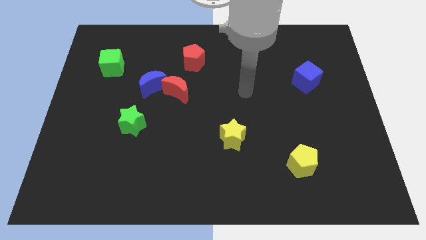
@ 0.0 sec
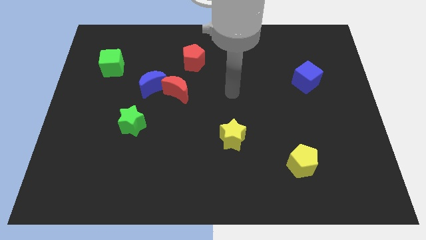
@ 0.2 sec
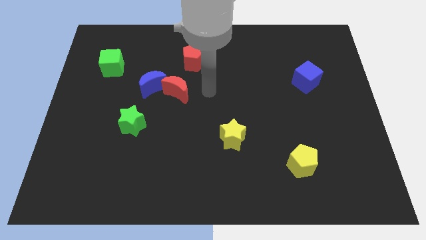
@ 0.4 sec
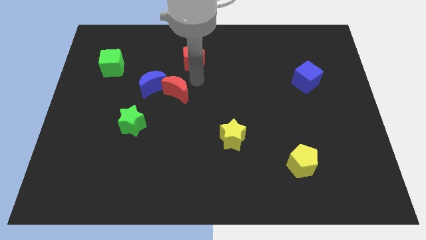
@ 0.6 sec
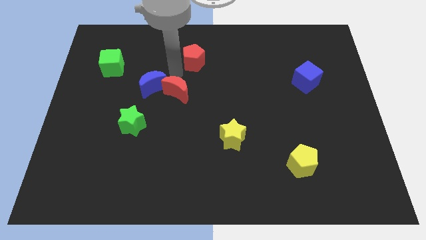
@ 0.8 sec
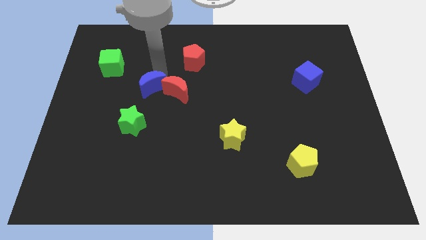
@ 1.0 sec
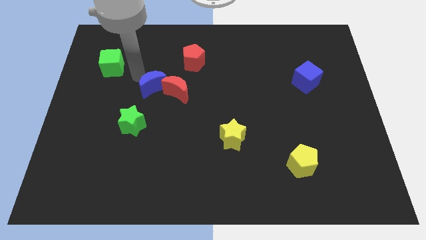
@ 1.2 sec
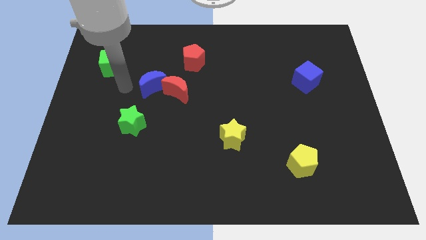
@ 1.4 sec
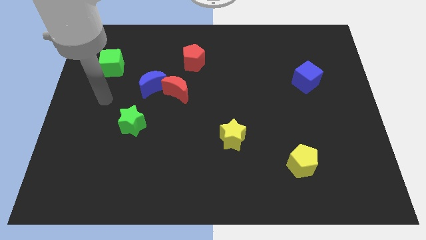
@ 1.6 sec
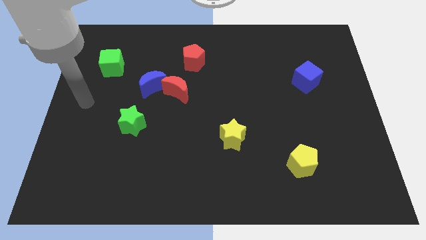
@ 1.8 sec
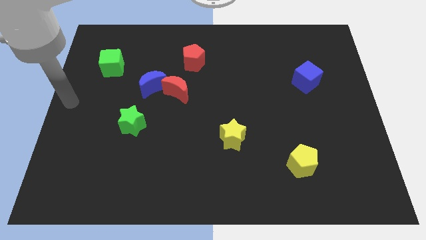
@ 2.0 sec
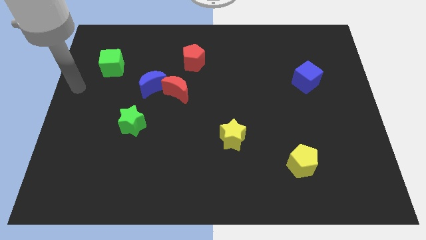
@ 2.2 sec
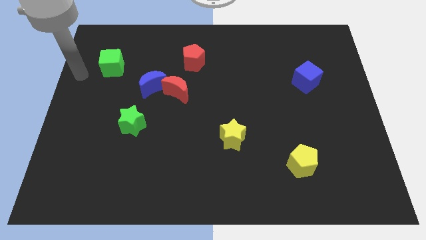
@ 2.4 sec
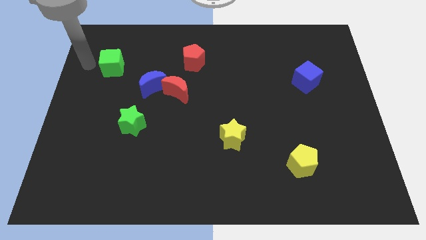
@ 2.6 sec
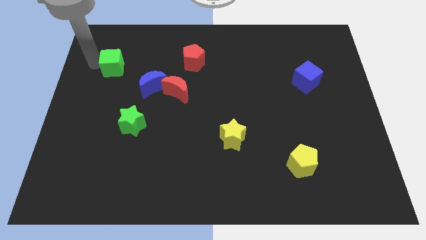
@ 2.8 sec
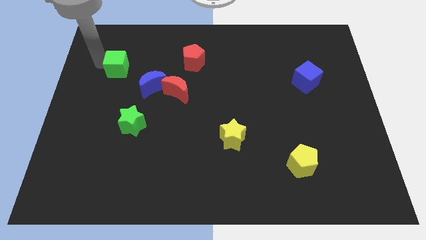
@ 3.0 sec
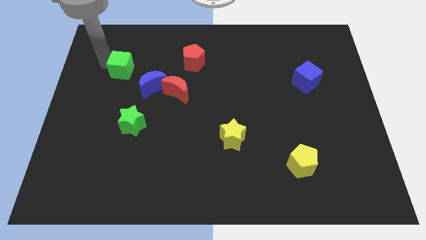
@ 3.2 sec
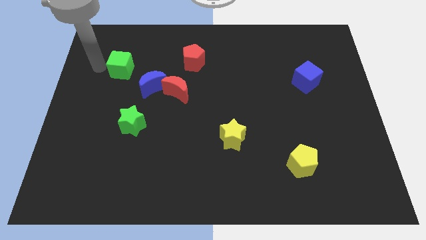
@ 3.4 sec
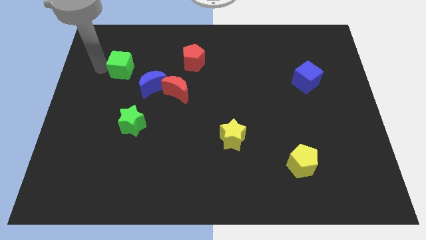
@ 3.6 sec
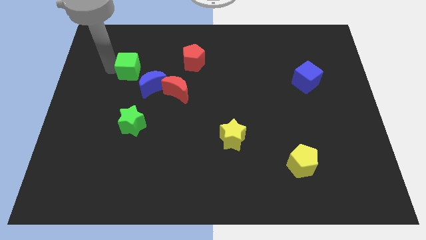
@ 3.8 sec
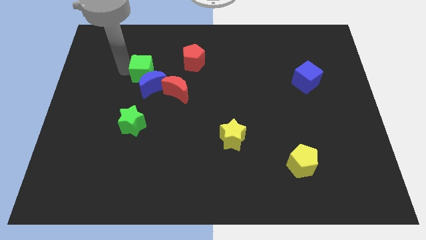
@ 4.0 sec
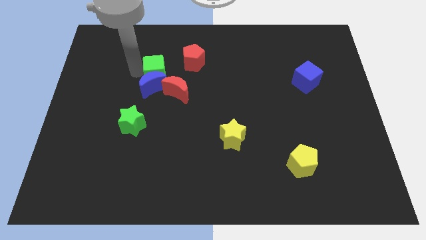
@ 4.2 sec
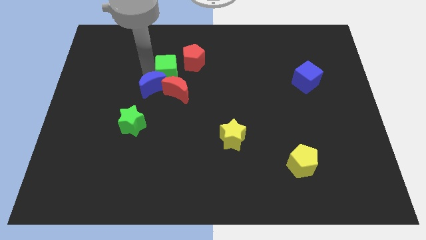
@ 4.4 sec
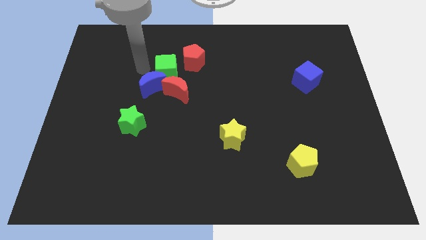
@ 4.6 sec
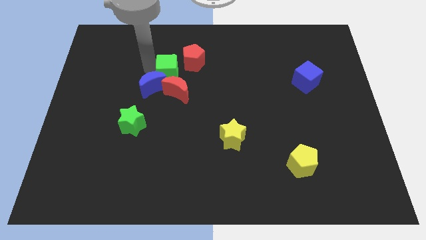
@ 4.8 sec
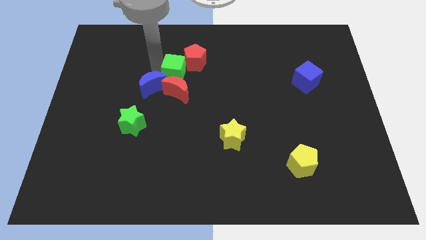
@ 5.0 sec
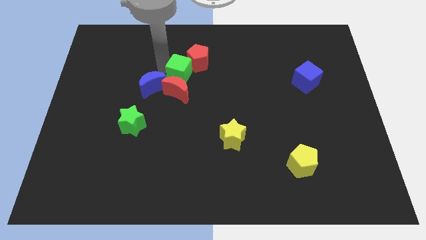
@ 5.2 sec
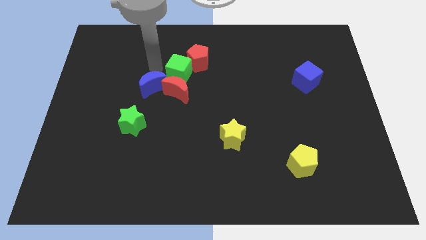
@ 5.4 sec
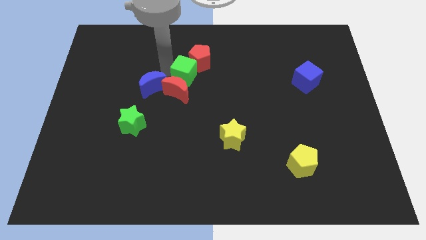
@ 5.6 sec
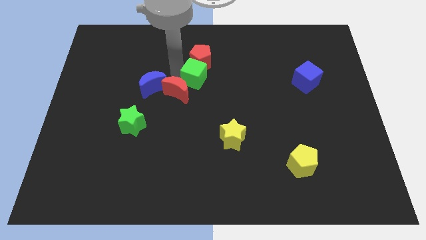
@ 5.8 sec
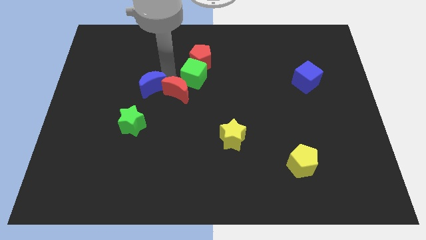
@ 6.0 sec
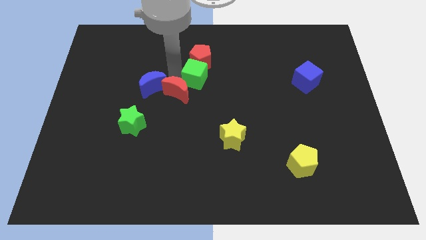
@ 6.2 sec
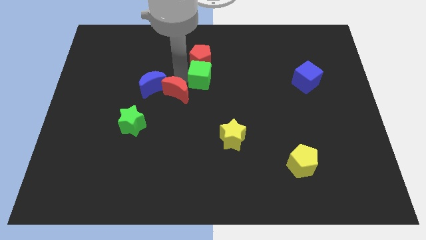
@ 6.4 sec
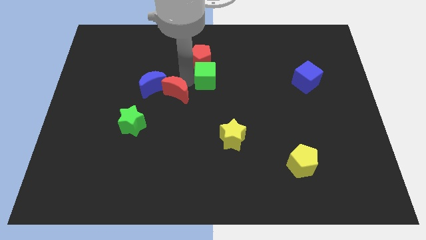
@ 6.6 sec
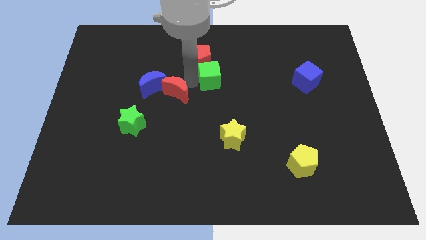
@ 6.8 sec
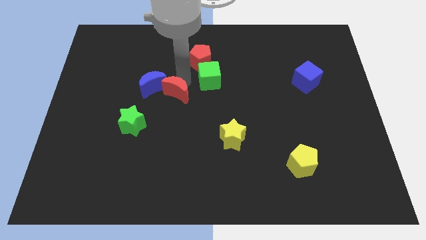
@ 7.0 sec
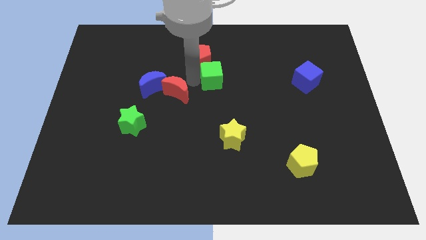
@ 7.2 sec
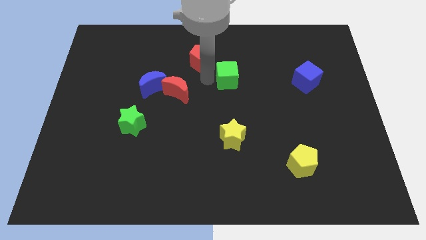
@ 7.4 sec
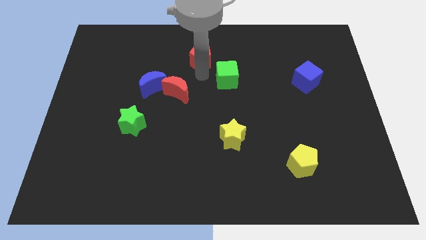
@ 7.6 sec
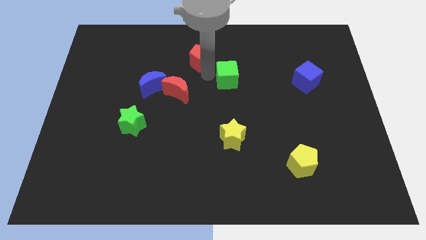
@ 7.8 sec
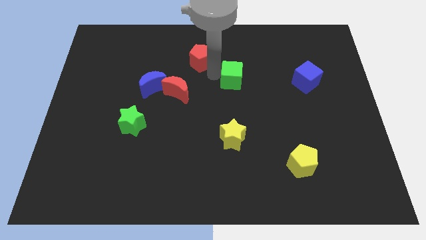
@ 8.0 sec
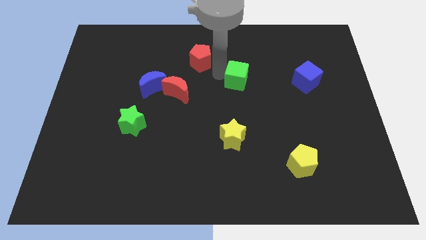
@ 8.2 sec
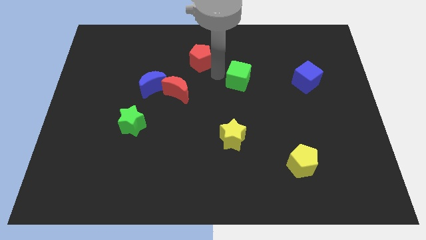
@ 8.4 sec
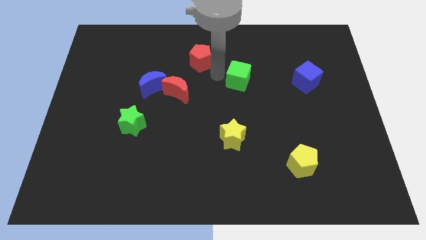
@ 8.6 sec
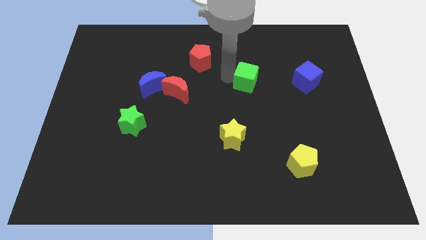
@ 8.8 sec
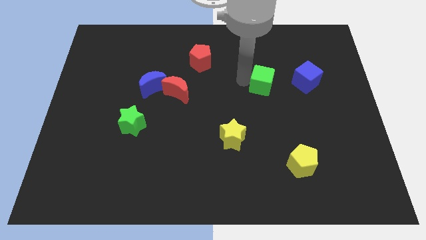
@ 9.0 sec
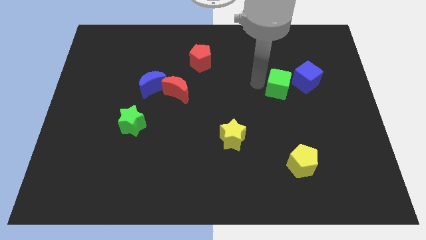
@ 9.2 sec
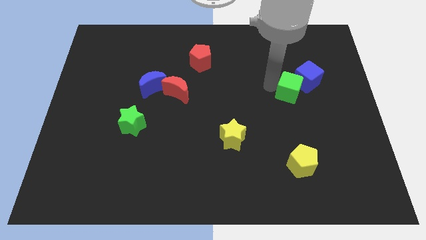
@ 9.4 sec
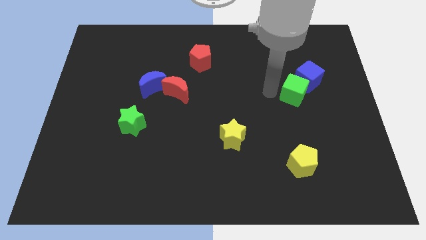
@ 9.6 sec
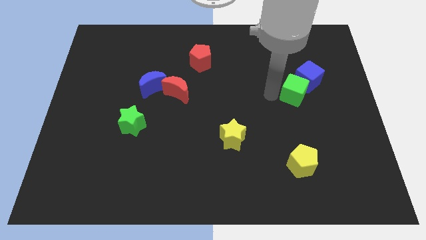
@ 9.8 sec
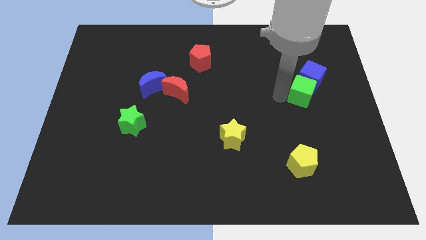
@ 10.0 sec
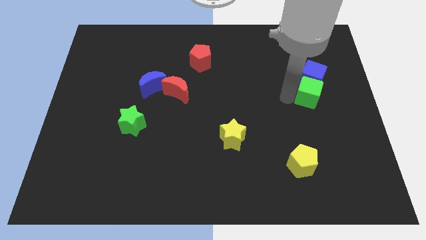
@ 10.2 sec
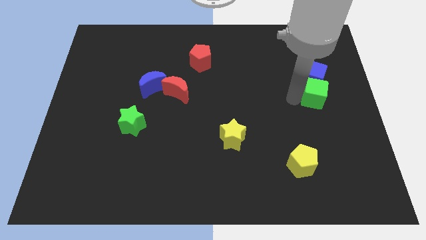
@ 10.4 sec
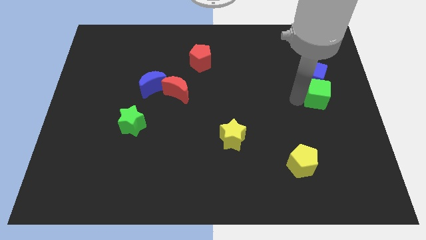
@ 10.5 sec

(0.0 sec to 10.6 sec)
push the green cube to the right side of the board
